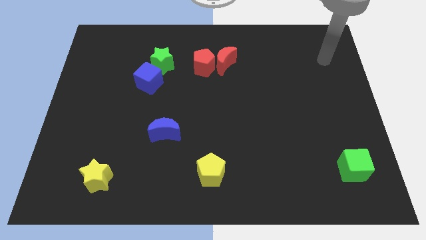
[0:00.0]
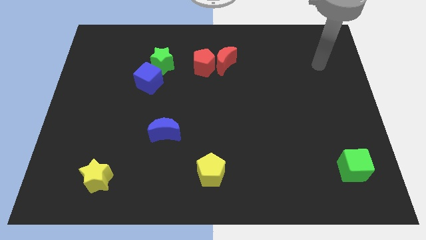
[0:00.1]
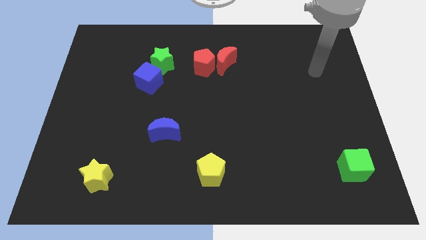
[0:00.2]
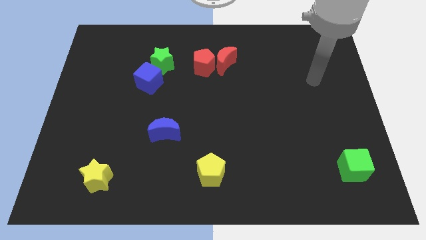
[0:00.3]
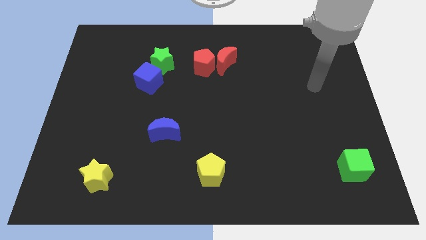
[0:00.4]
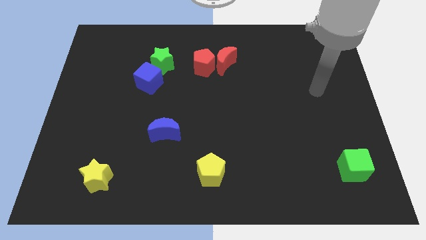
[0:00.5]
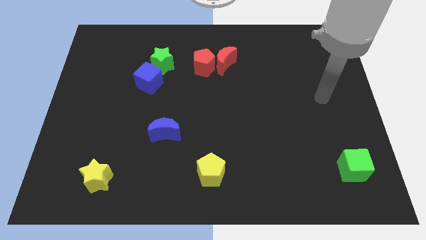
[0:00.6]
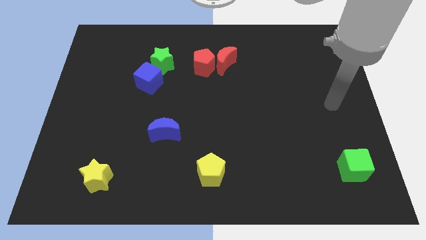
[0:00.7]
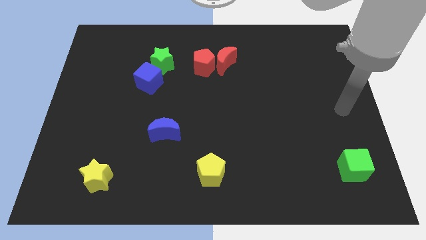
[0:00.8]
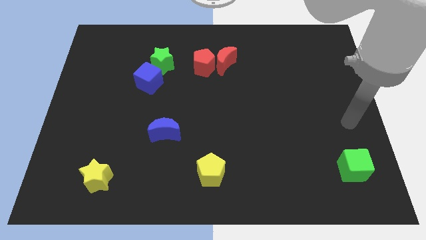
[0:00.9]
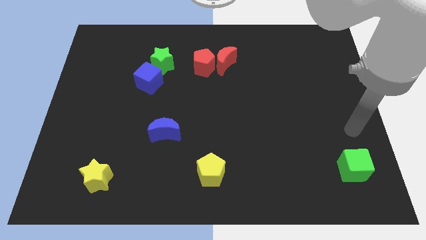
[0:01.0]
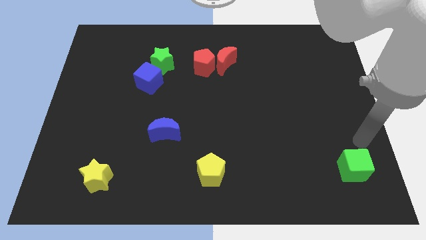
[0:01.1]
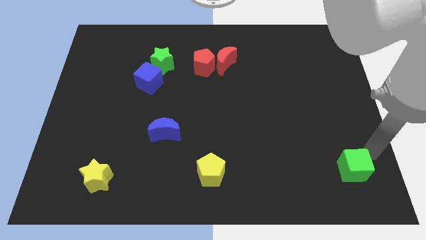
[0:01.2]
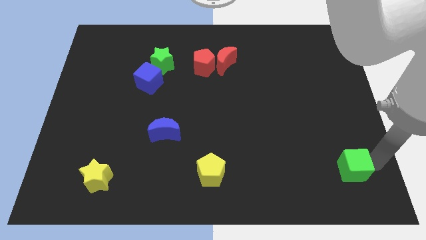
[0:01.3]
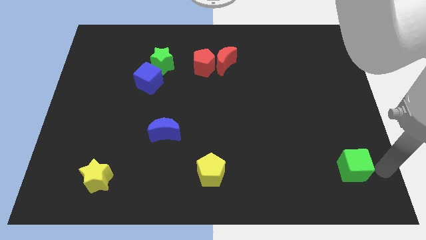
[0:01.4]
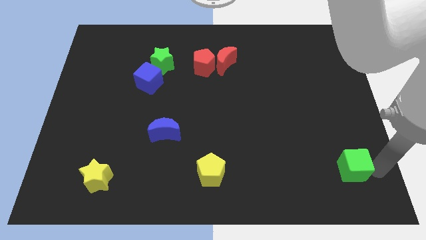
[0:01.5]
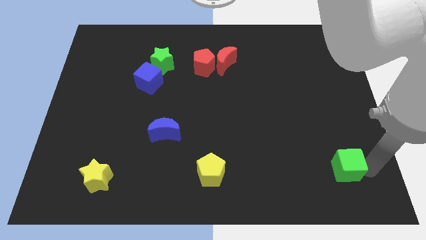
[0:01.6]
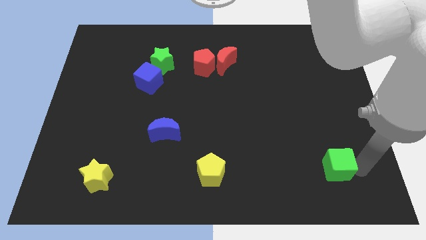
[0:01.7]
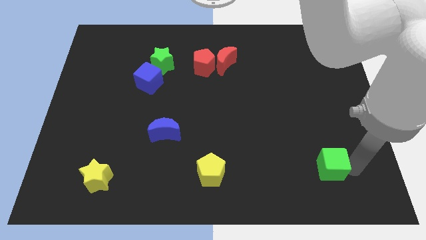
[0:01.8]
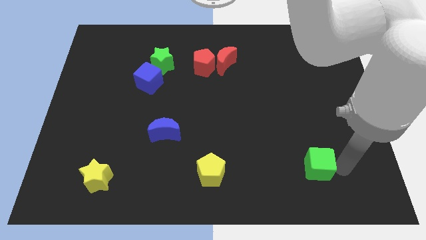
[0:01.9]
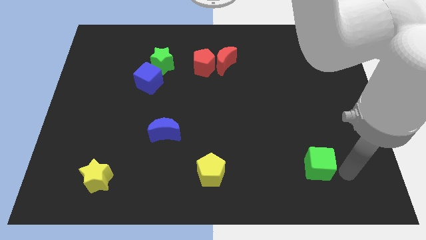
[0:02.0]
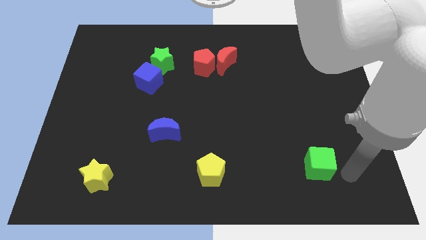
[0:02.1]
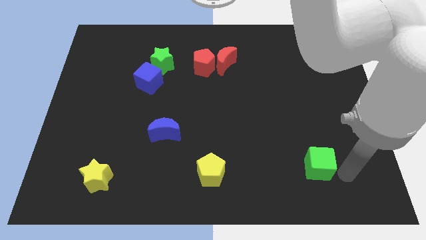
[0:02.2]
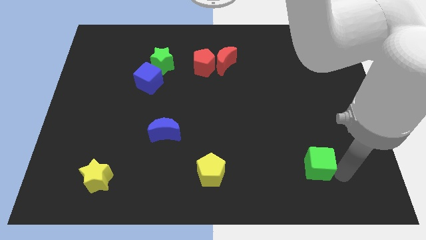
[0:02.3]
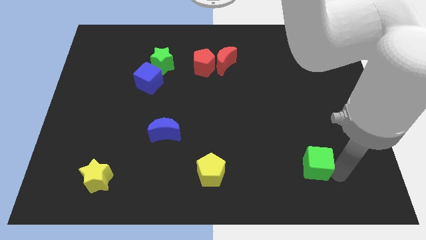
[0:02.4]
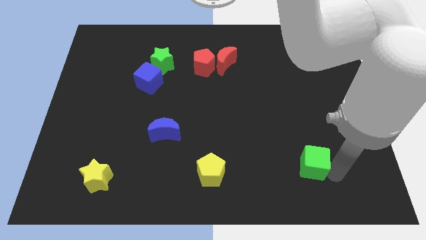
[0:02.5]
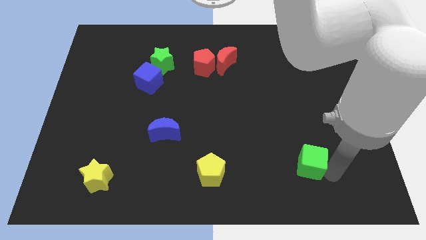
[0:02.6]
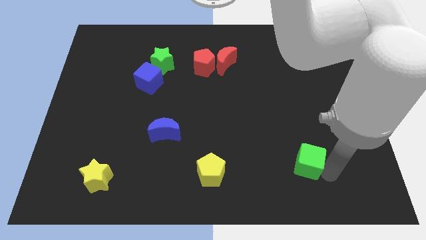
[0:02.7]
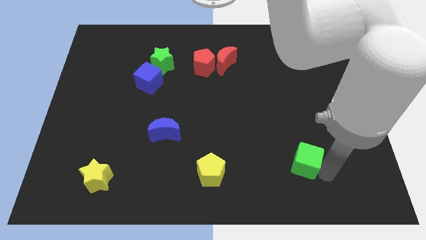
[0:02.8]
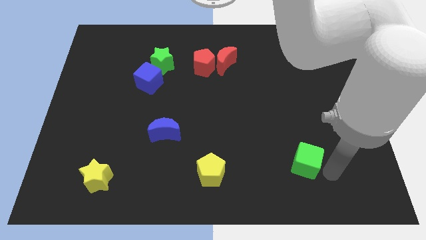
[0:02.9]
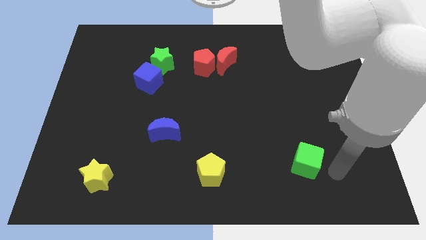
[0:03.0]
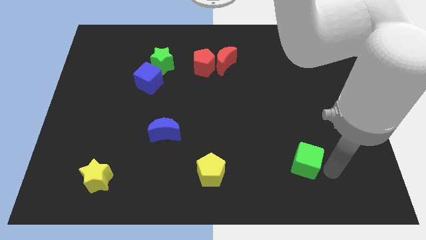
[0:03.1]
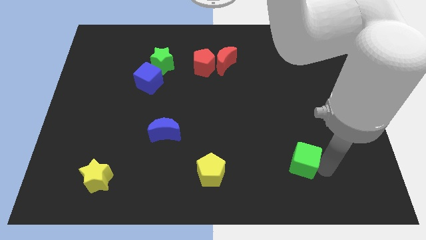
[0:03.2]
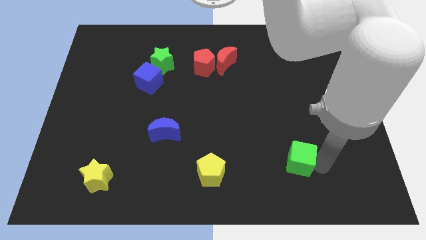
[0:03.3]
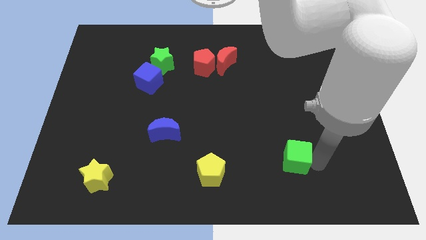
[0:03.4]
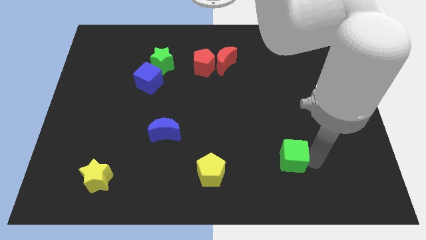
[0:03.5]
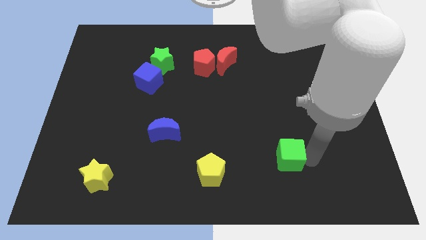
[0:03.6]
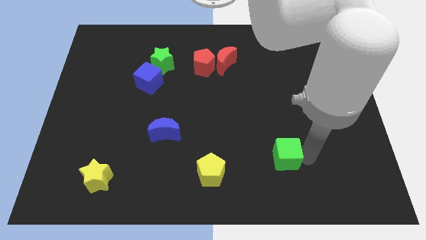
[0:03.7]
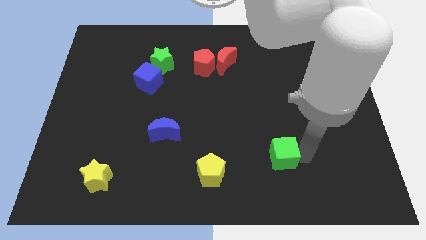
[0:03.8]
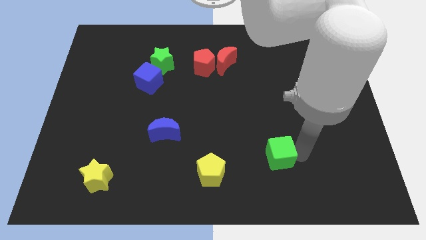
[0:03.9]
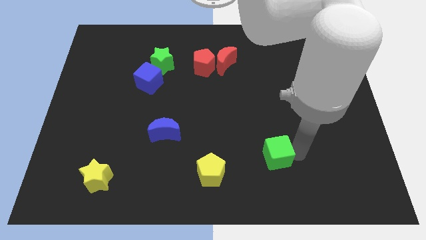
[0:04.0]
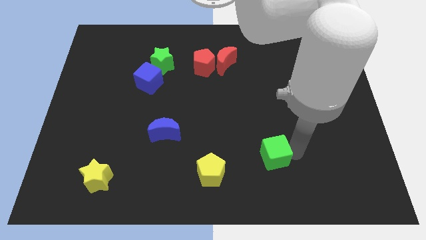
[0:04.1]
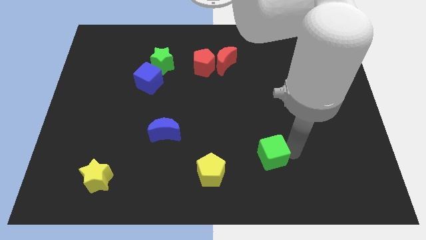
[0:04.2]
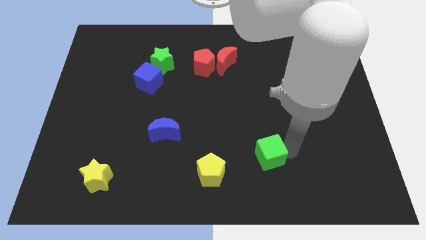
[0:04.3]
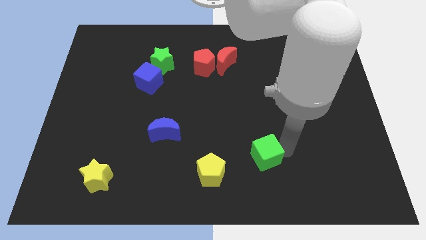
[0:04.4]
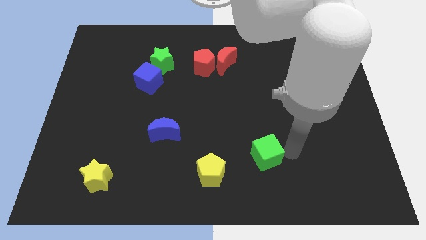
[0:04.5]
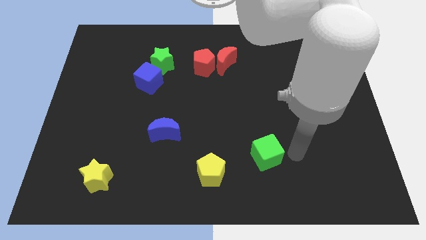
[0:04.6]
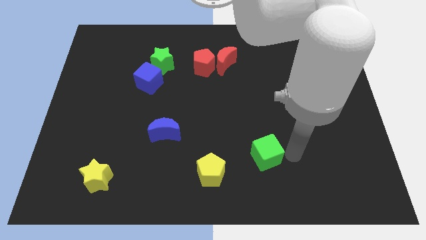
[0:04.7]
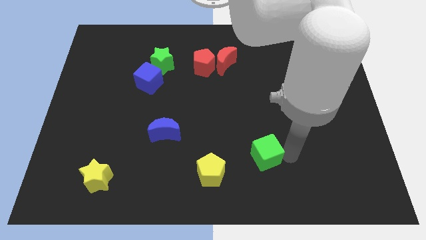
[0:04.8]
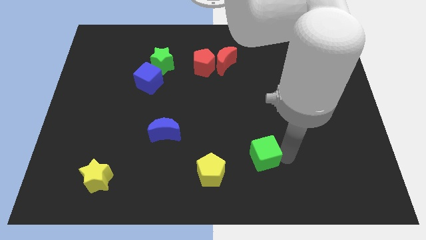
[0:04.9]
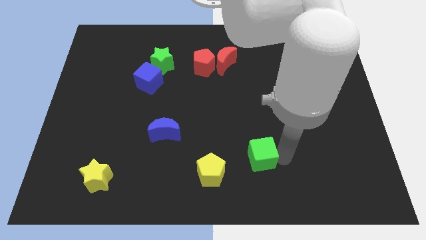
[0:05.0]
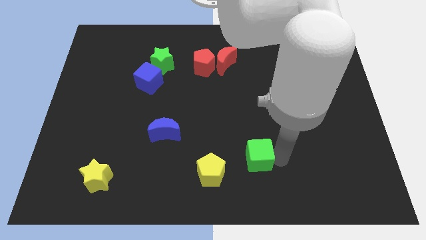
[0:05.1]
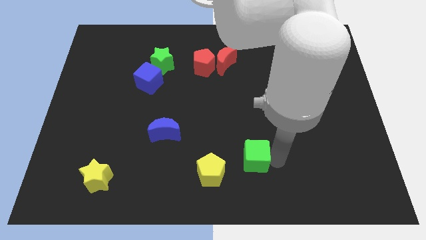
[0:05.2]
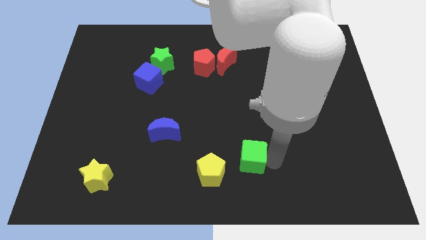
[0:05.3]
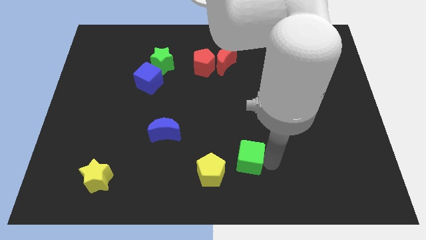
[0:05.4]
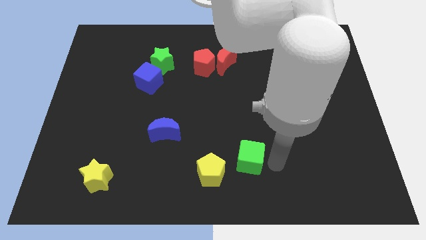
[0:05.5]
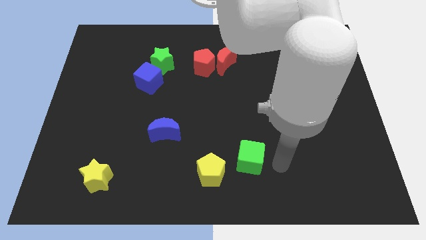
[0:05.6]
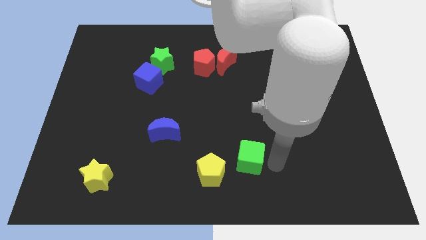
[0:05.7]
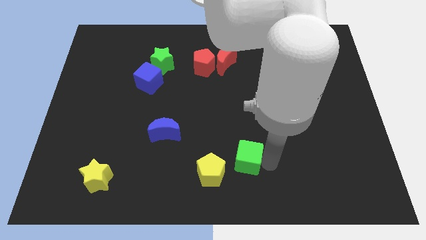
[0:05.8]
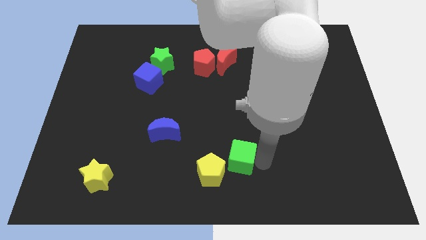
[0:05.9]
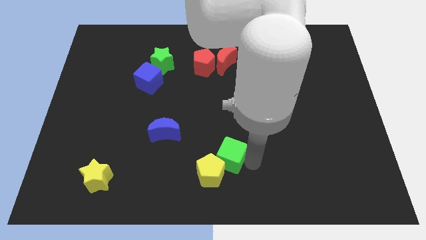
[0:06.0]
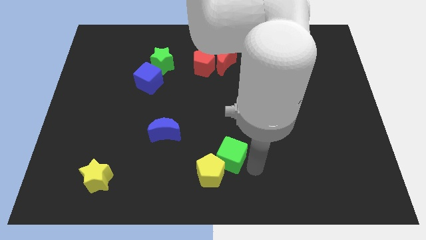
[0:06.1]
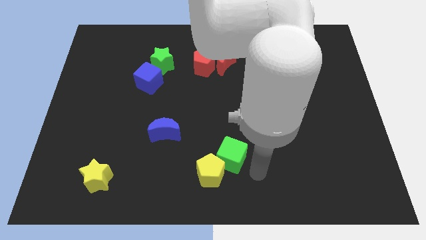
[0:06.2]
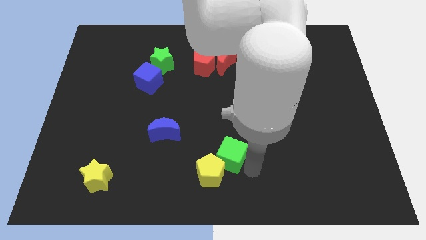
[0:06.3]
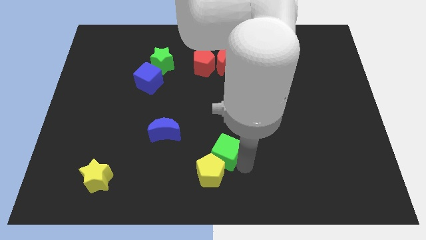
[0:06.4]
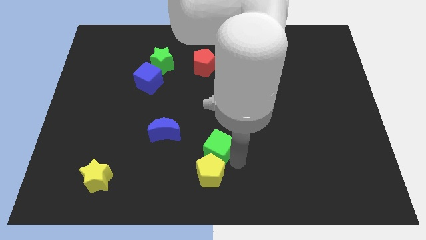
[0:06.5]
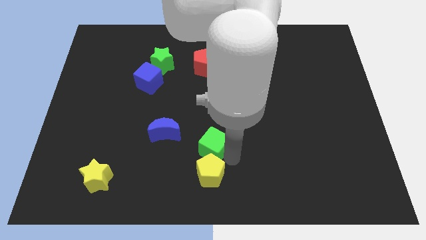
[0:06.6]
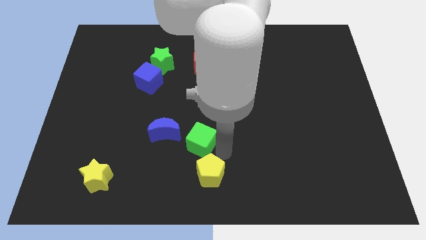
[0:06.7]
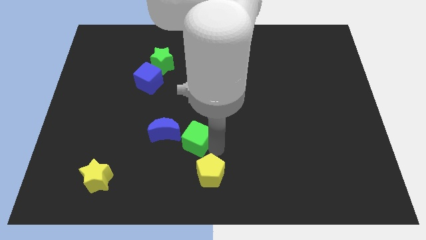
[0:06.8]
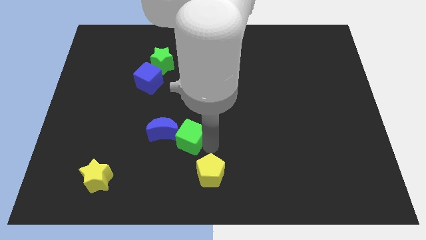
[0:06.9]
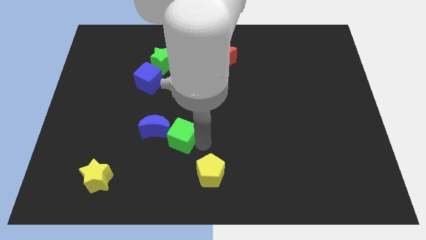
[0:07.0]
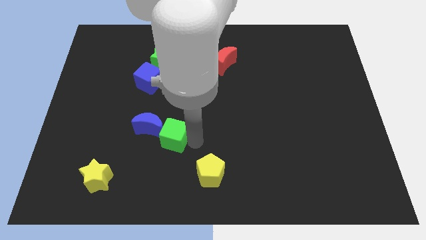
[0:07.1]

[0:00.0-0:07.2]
push the green cube close to the blue moon
